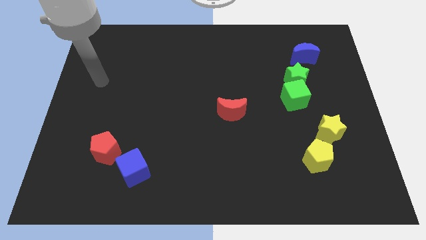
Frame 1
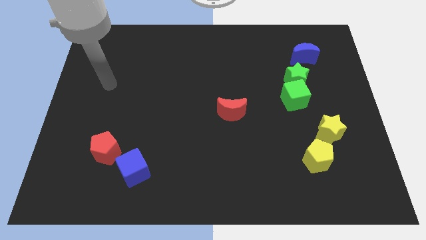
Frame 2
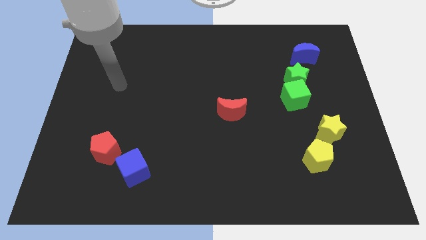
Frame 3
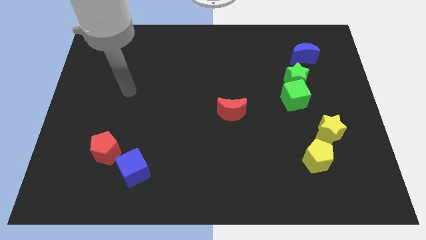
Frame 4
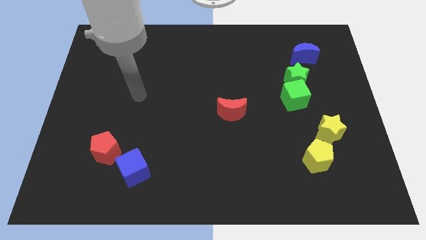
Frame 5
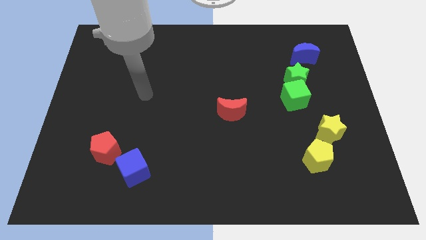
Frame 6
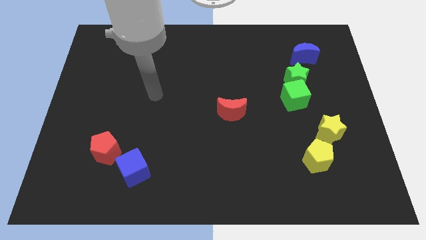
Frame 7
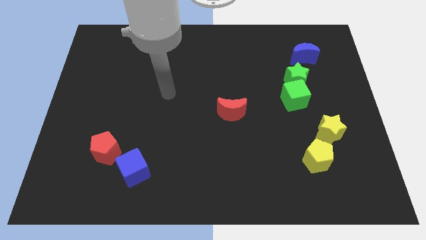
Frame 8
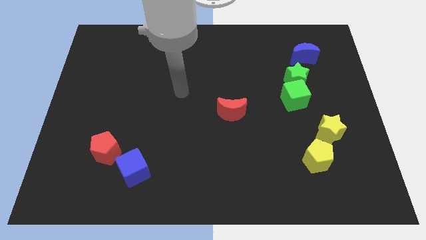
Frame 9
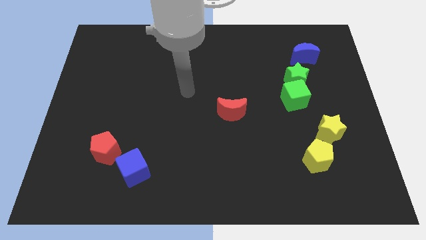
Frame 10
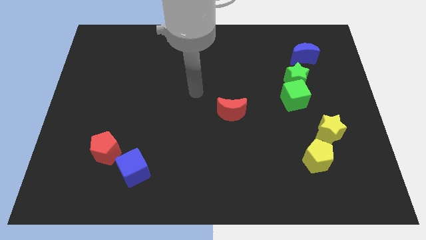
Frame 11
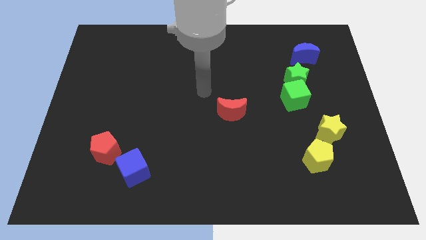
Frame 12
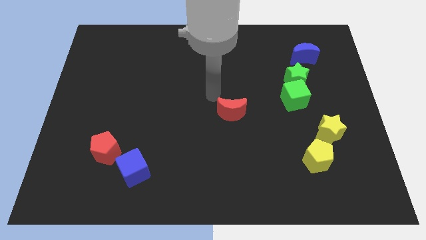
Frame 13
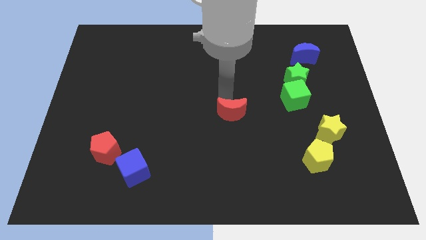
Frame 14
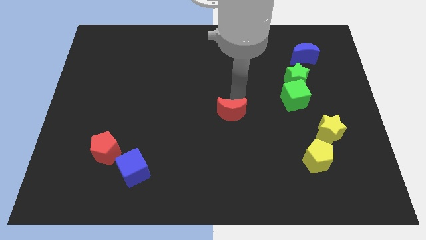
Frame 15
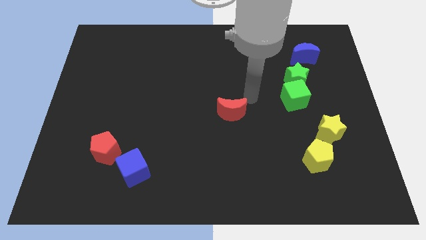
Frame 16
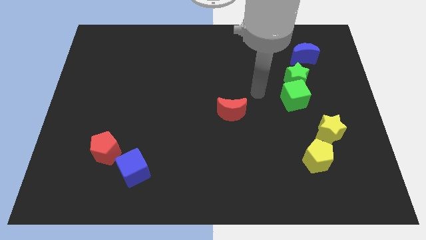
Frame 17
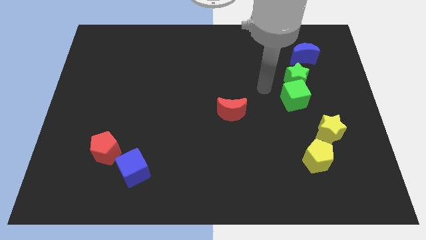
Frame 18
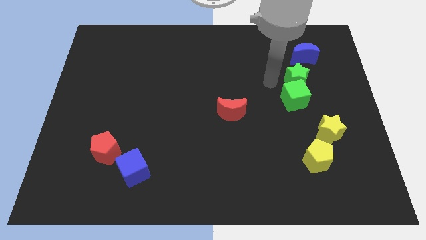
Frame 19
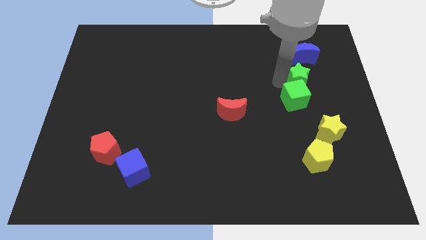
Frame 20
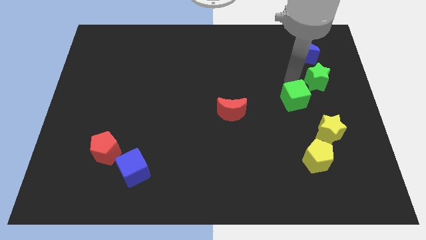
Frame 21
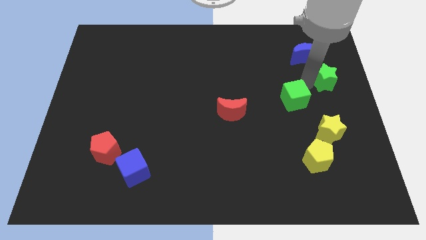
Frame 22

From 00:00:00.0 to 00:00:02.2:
move the green cube away from the green star

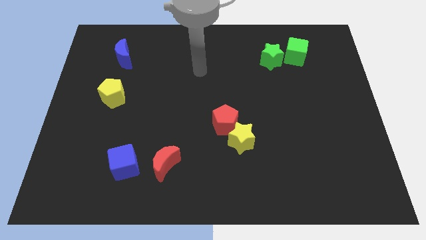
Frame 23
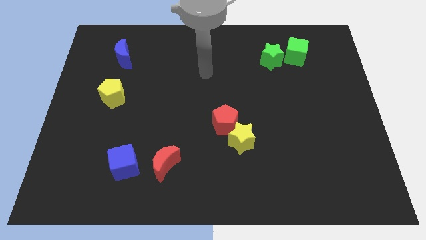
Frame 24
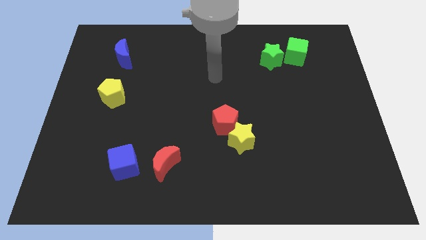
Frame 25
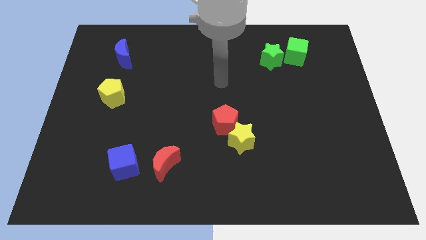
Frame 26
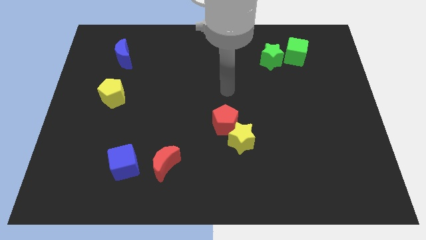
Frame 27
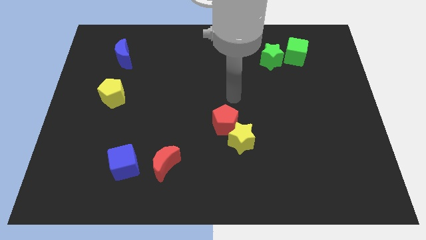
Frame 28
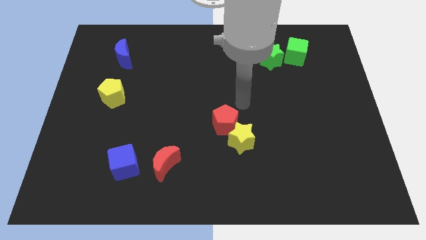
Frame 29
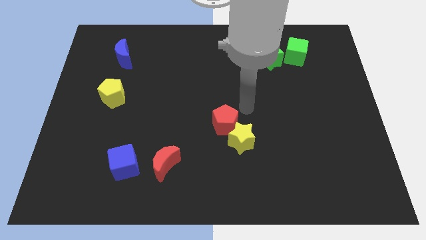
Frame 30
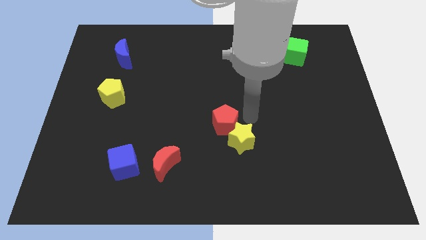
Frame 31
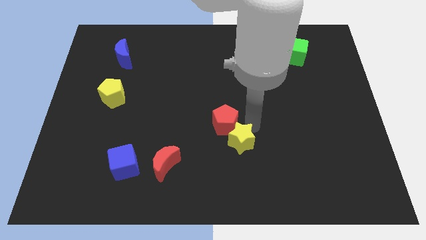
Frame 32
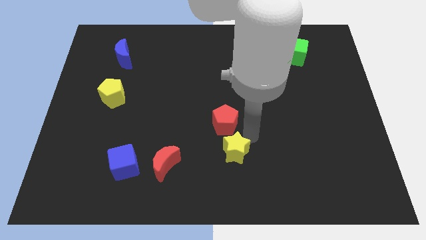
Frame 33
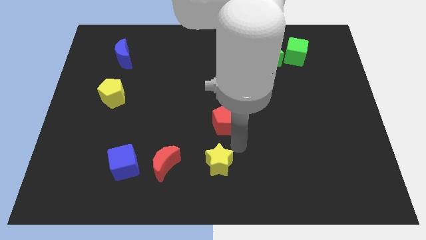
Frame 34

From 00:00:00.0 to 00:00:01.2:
move the red pentagon away from the yellow star

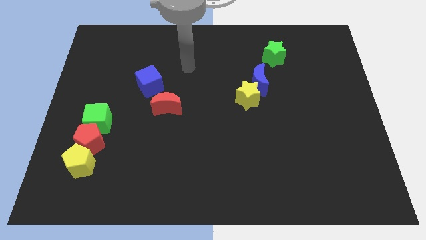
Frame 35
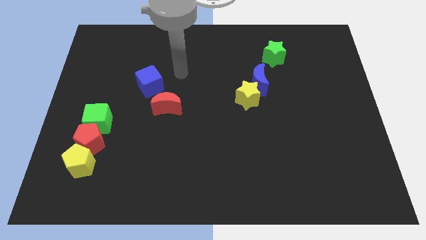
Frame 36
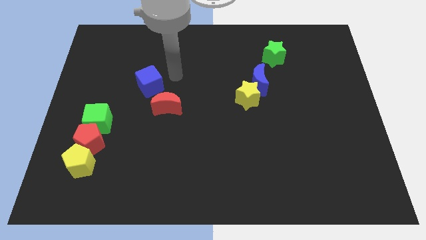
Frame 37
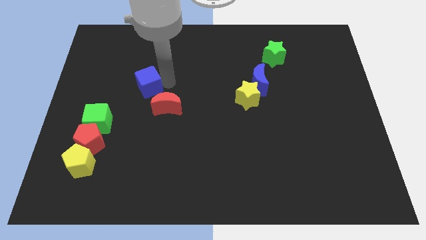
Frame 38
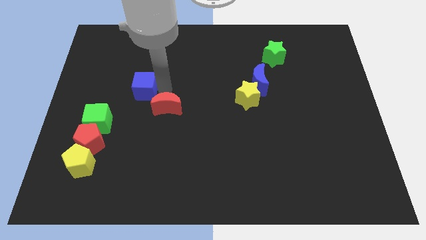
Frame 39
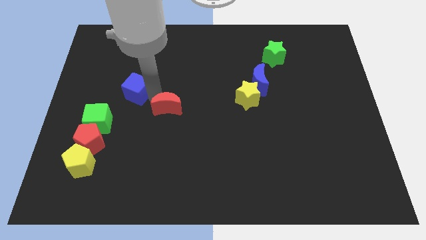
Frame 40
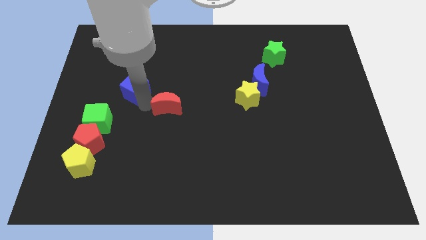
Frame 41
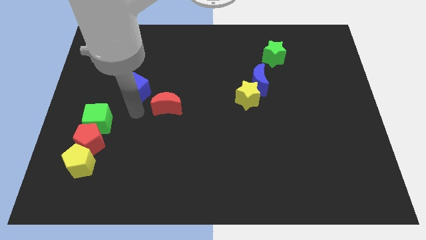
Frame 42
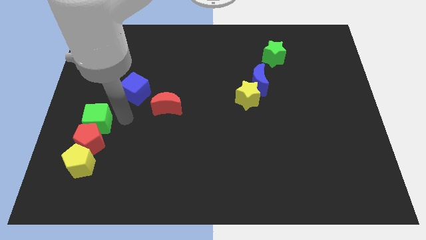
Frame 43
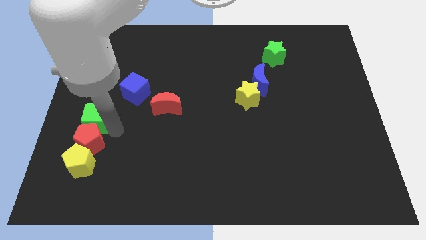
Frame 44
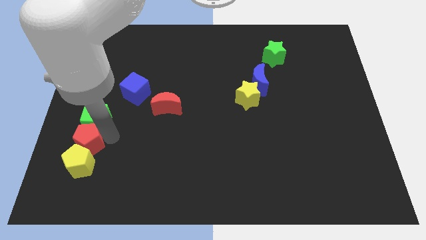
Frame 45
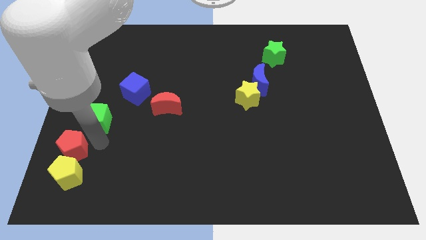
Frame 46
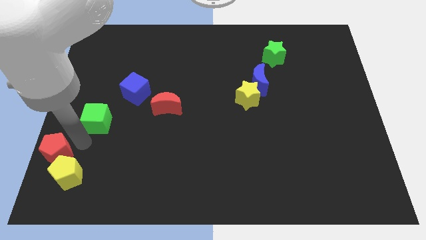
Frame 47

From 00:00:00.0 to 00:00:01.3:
pull the green cube apart from the red pentagon

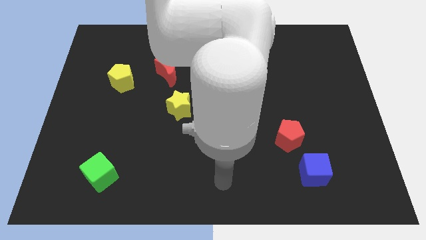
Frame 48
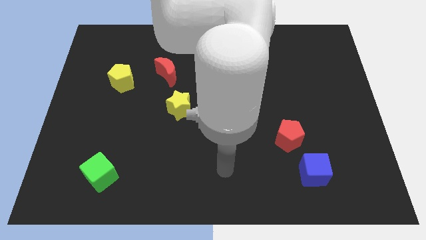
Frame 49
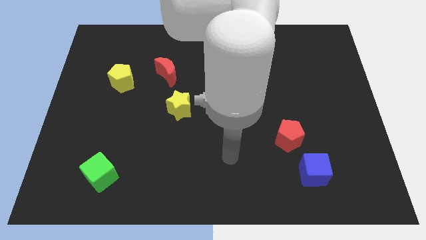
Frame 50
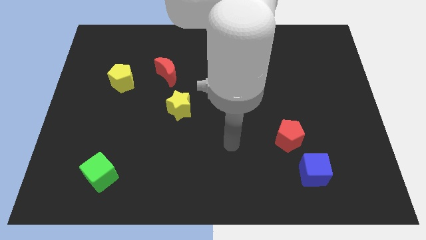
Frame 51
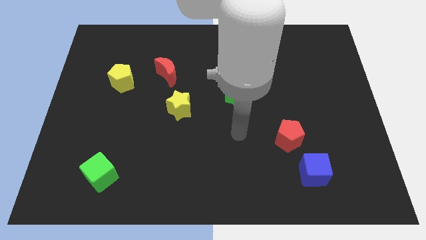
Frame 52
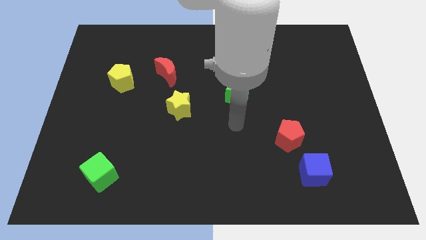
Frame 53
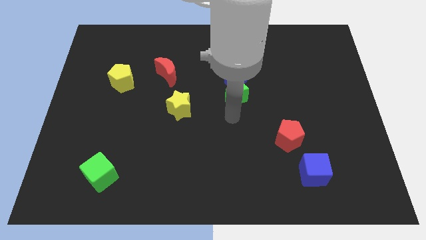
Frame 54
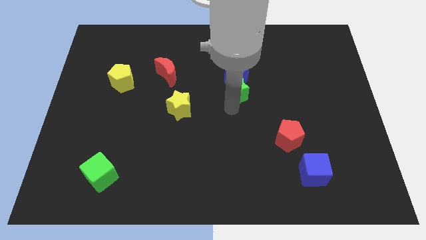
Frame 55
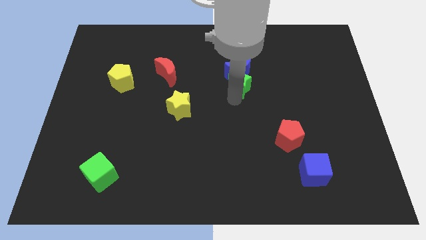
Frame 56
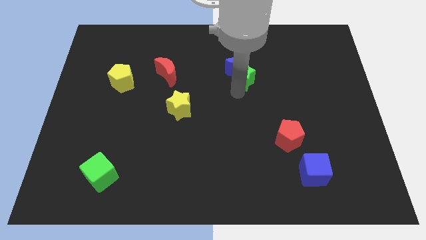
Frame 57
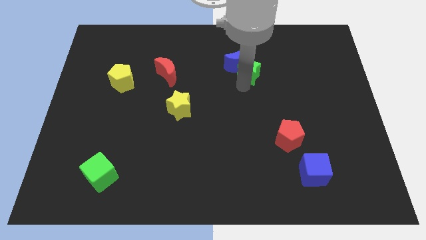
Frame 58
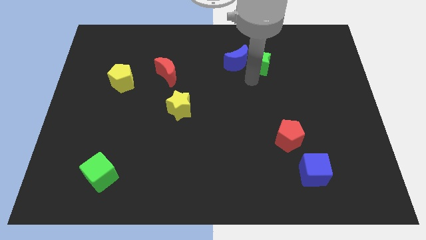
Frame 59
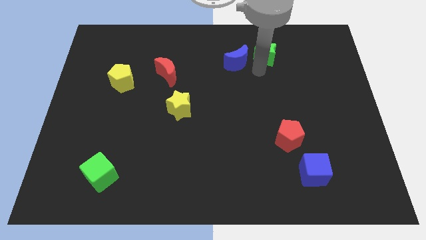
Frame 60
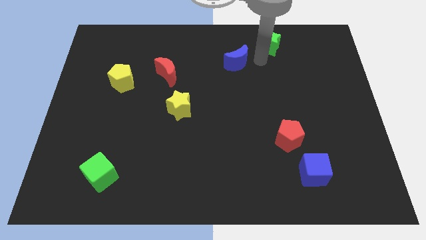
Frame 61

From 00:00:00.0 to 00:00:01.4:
separate the blue moon from the green star

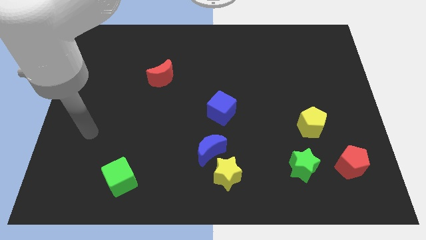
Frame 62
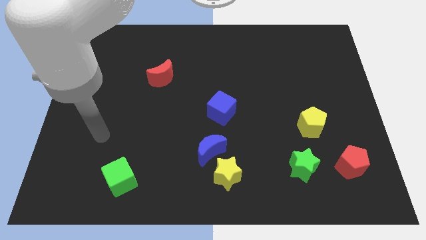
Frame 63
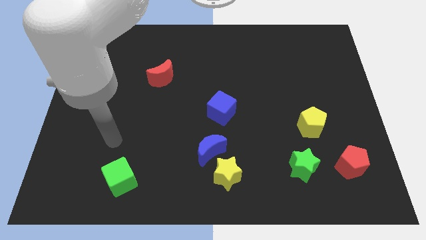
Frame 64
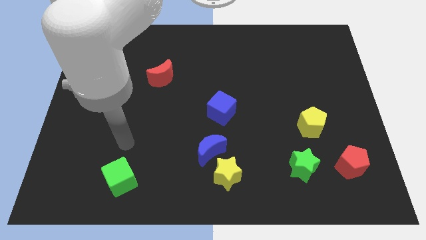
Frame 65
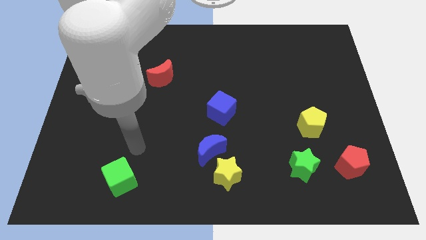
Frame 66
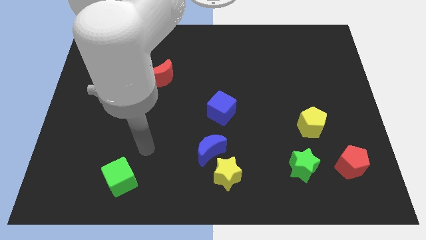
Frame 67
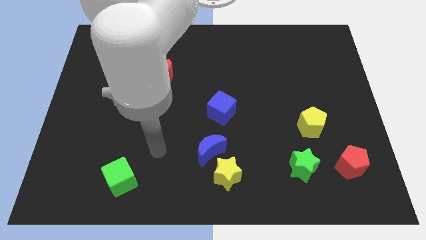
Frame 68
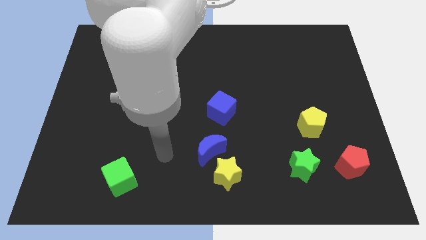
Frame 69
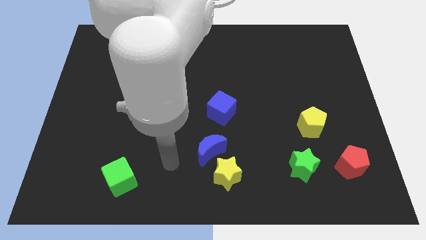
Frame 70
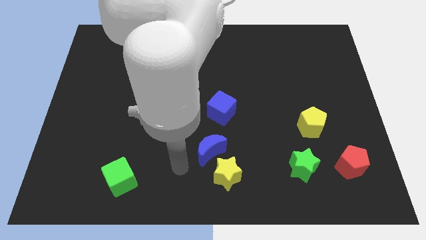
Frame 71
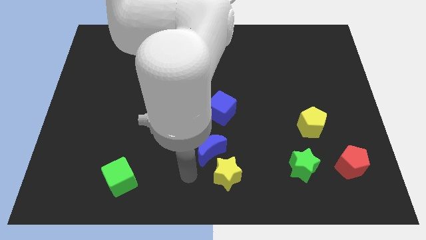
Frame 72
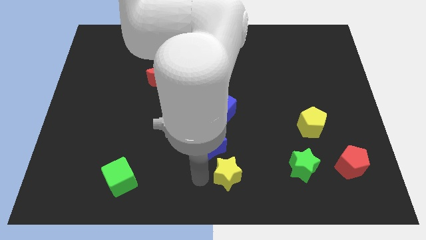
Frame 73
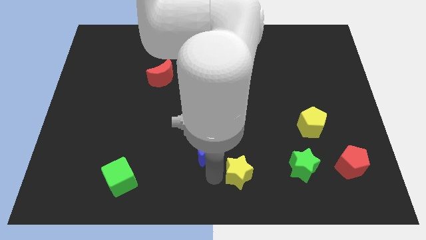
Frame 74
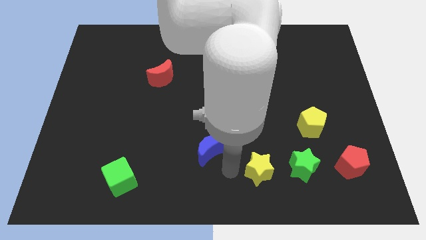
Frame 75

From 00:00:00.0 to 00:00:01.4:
separate the blue moon from the yellow star

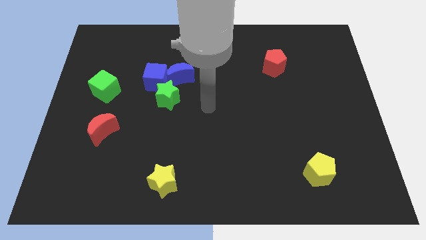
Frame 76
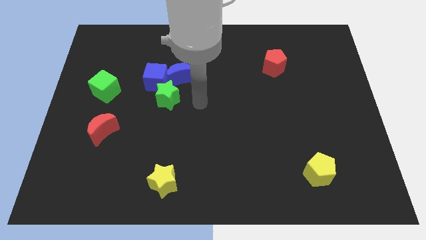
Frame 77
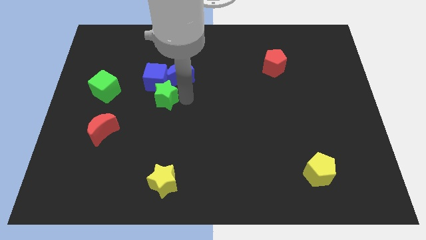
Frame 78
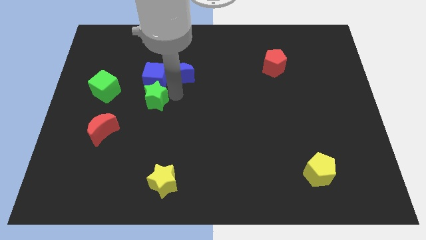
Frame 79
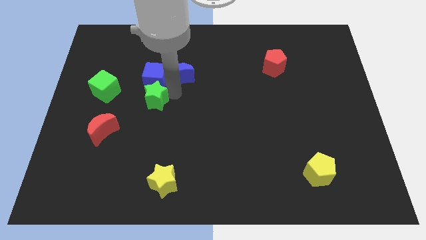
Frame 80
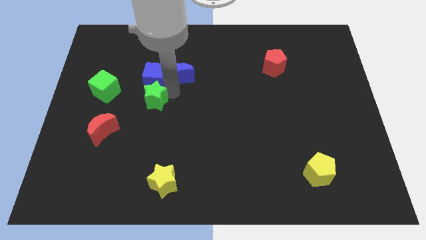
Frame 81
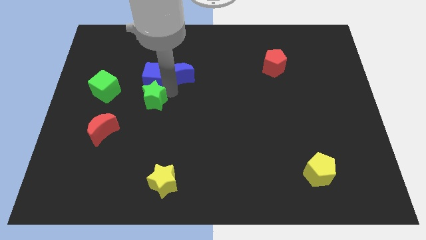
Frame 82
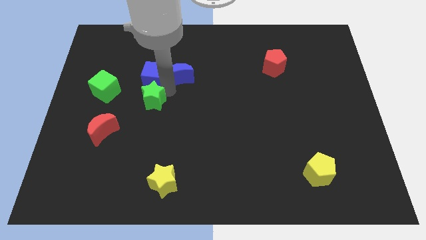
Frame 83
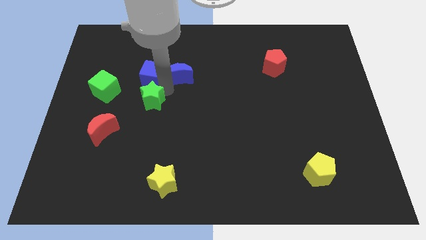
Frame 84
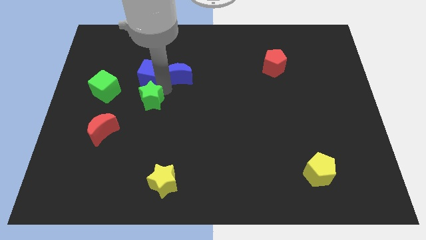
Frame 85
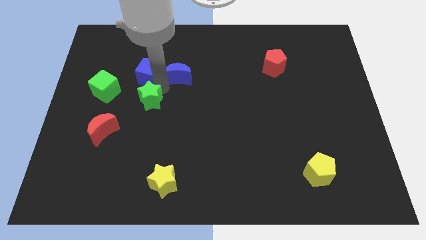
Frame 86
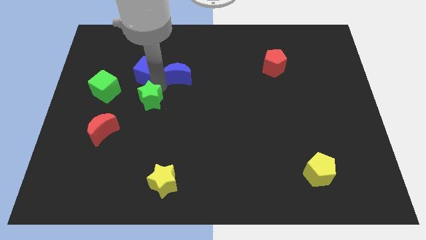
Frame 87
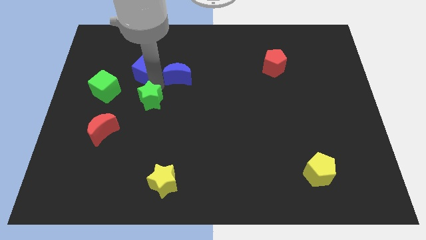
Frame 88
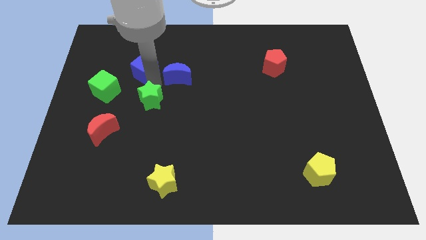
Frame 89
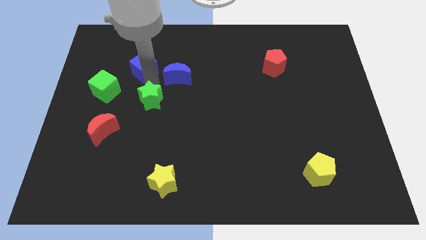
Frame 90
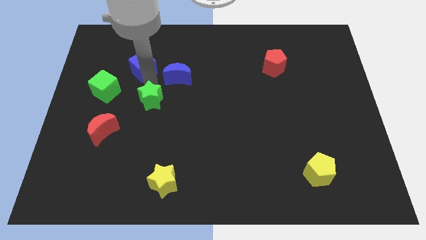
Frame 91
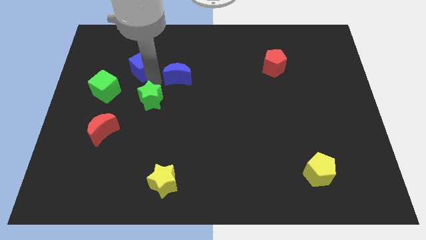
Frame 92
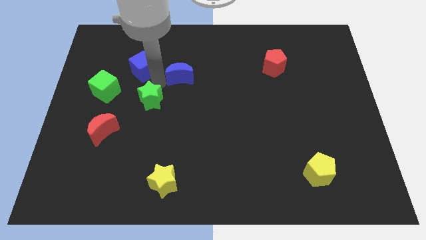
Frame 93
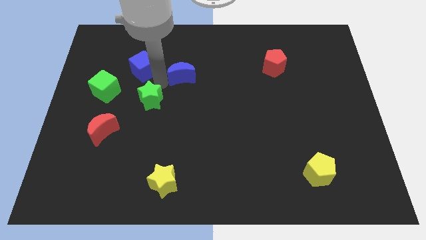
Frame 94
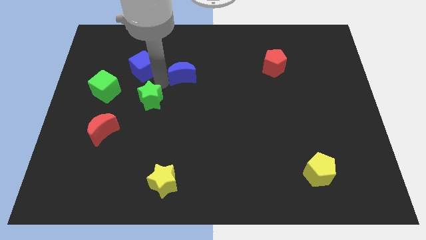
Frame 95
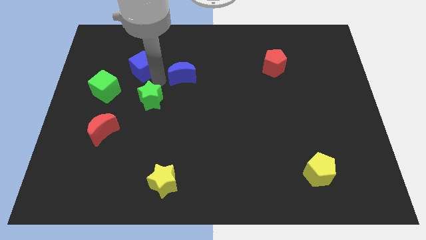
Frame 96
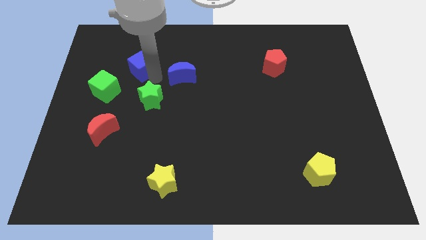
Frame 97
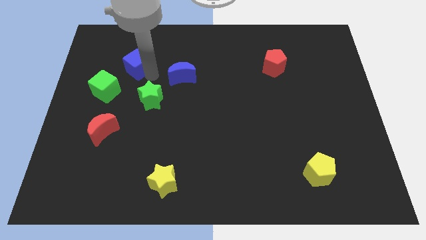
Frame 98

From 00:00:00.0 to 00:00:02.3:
move the blue cube away from the blue moon and green star
